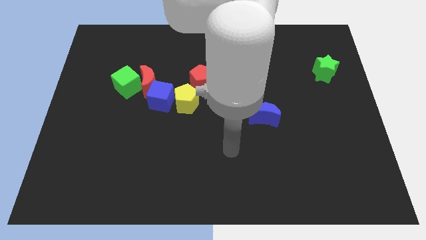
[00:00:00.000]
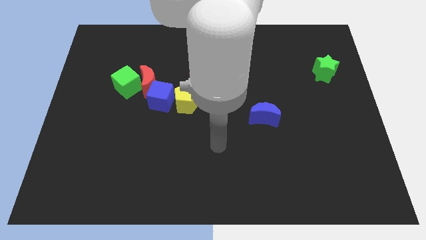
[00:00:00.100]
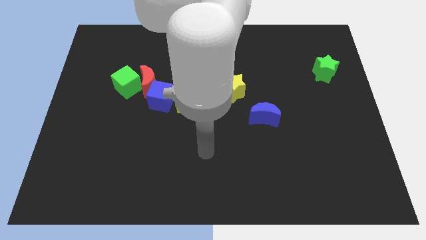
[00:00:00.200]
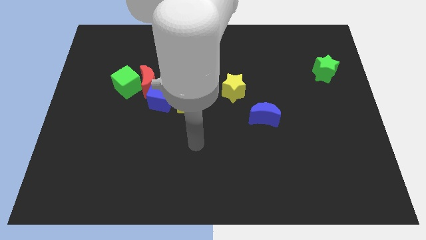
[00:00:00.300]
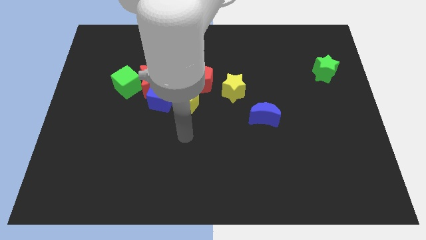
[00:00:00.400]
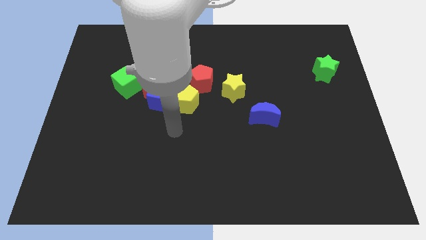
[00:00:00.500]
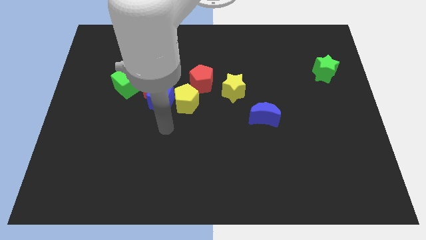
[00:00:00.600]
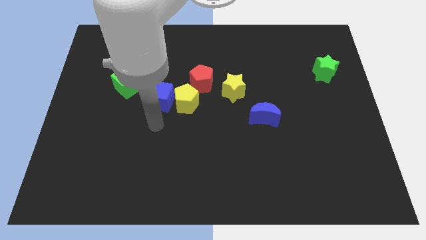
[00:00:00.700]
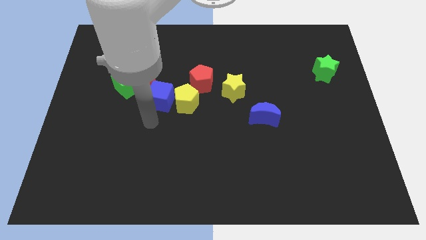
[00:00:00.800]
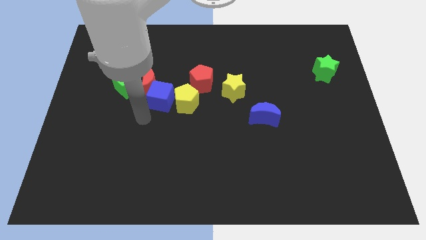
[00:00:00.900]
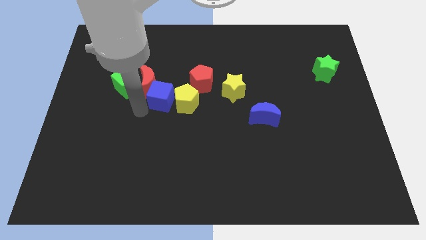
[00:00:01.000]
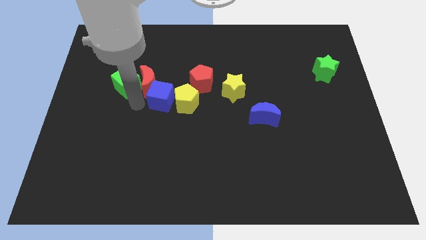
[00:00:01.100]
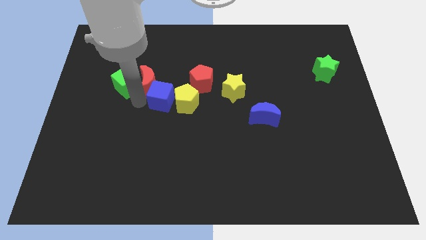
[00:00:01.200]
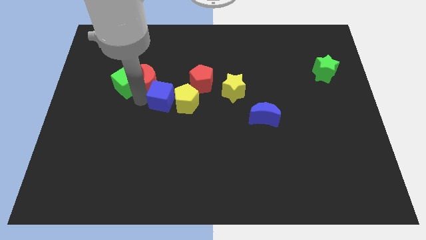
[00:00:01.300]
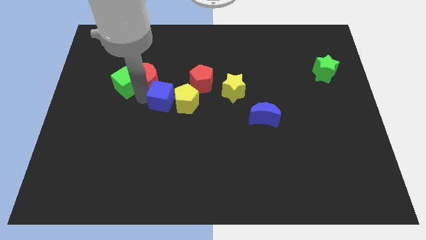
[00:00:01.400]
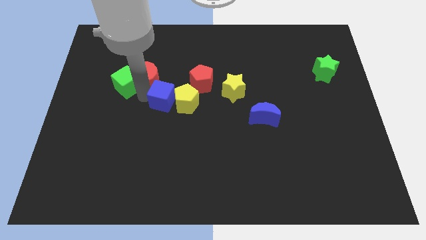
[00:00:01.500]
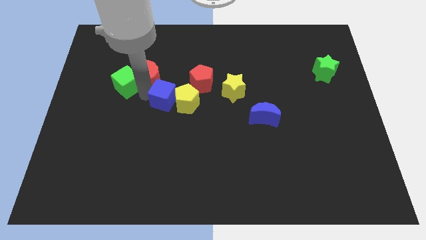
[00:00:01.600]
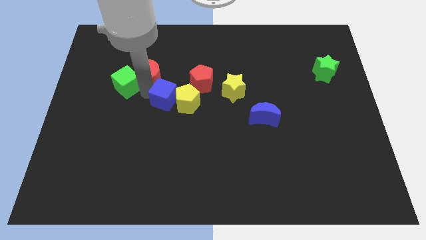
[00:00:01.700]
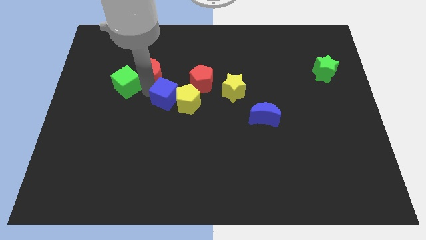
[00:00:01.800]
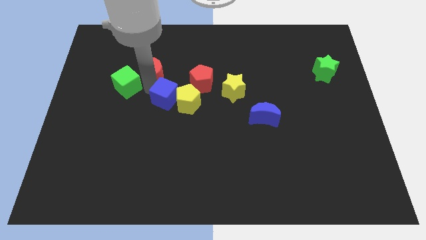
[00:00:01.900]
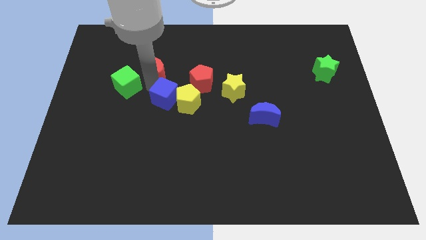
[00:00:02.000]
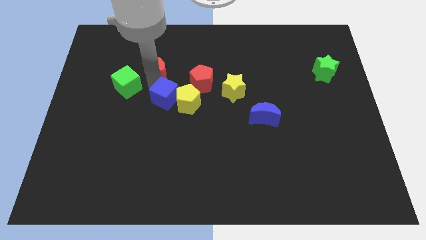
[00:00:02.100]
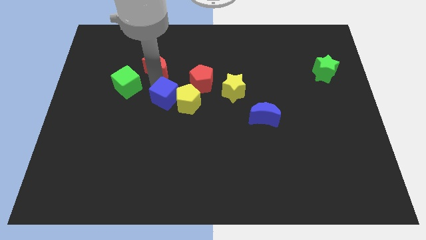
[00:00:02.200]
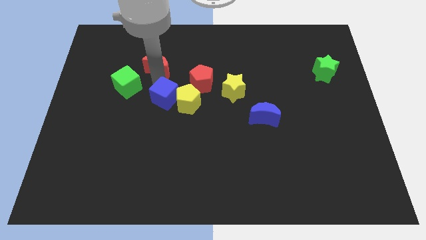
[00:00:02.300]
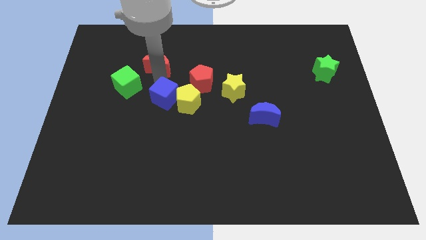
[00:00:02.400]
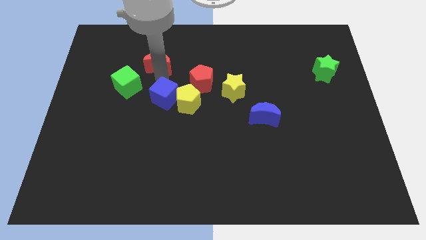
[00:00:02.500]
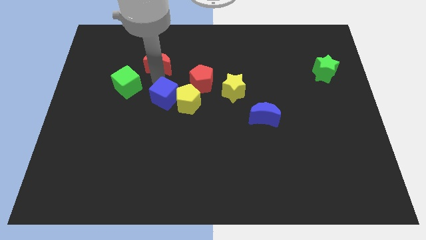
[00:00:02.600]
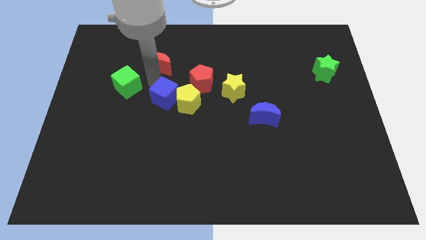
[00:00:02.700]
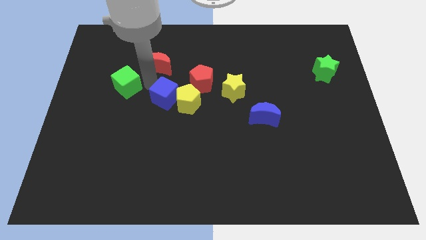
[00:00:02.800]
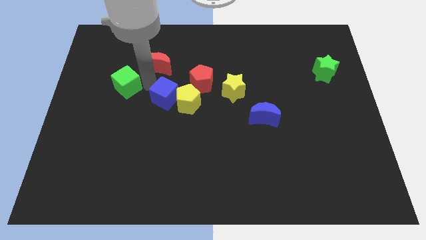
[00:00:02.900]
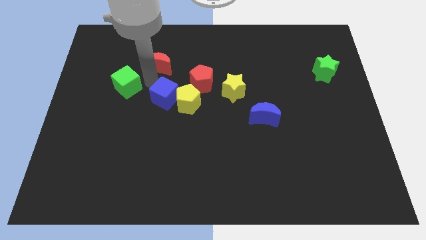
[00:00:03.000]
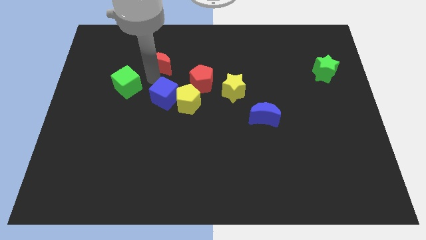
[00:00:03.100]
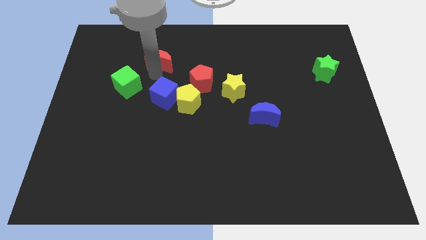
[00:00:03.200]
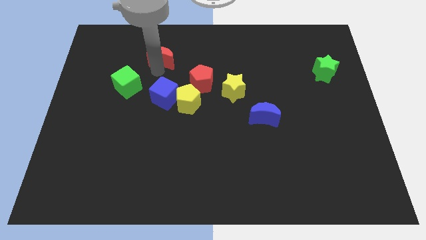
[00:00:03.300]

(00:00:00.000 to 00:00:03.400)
pull the red moon apart from the green cube and blue cube

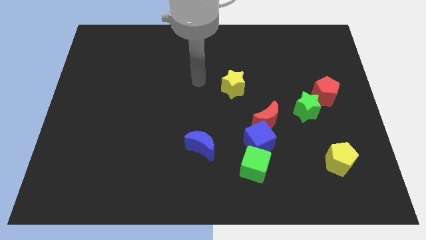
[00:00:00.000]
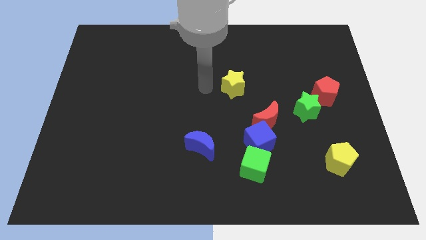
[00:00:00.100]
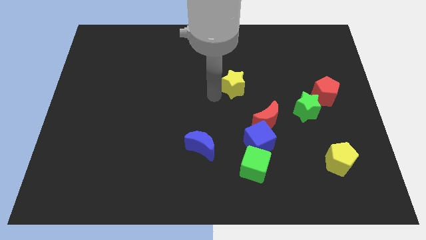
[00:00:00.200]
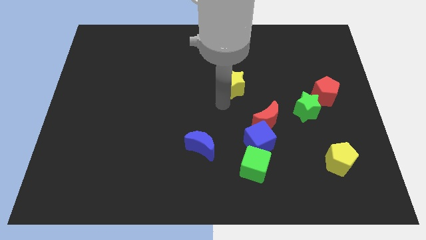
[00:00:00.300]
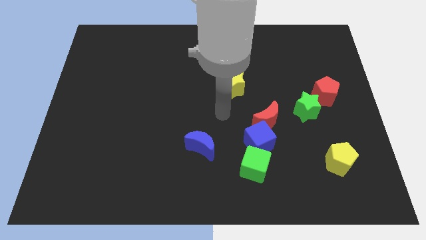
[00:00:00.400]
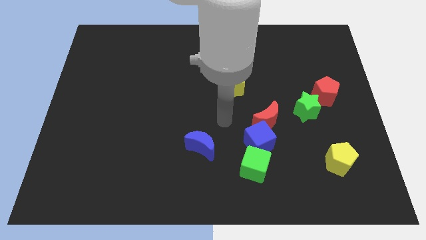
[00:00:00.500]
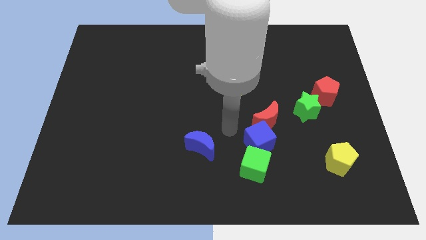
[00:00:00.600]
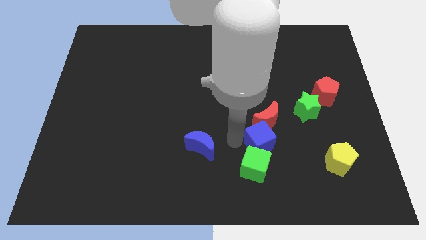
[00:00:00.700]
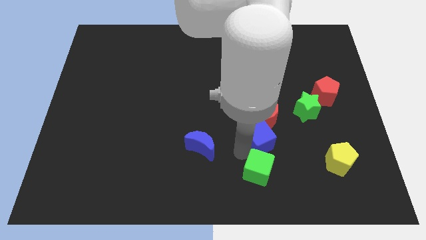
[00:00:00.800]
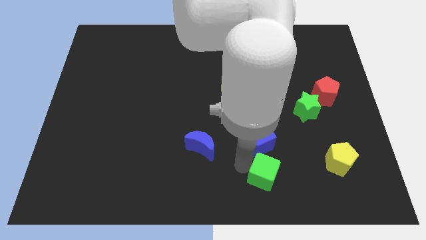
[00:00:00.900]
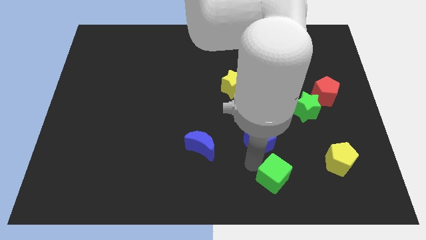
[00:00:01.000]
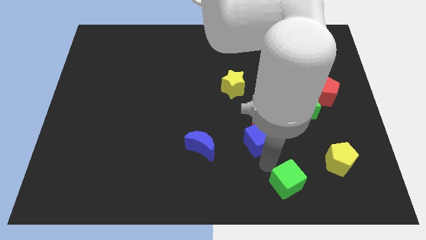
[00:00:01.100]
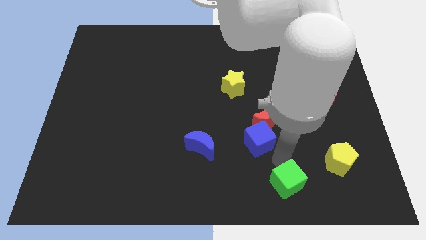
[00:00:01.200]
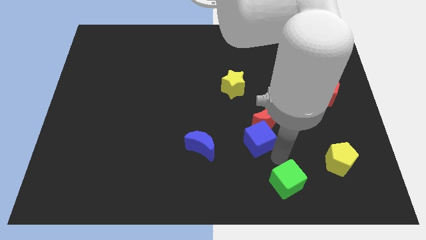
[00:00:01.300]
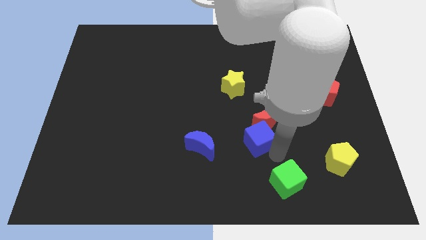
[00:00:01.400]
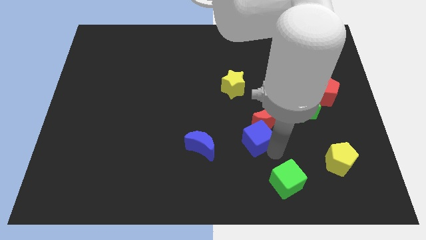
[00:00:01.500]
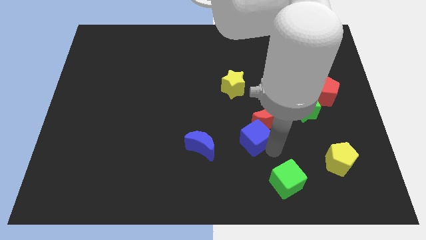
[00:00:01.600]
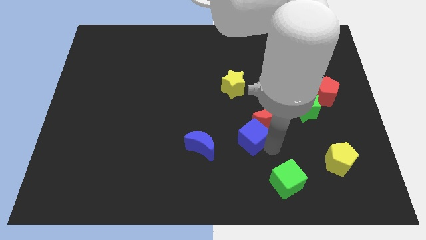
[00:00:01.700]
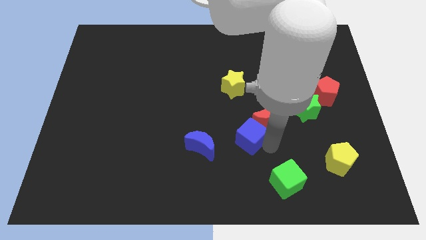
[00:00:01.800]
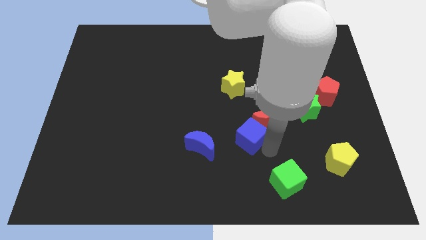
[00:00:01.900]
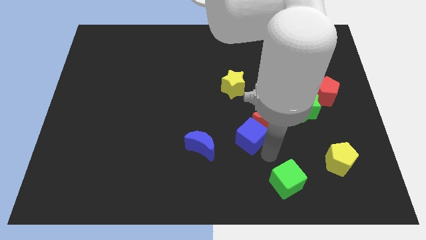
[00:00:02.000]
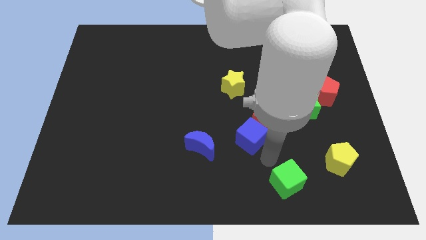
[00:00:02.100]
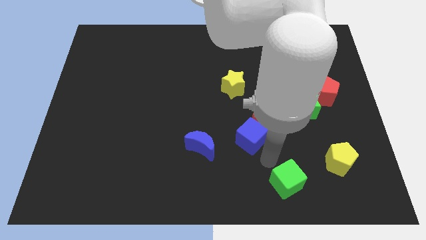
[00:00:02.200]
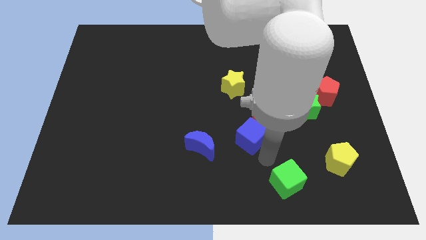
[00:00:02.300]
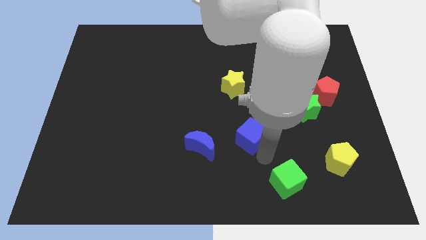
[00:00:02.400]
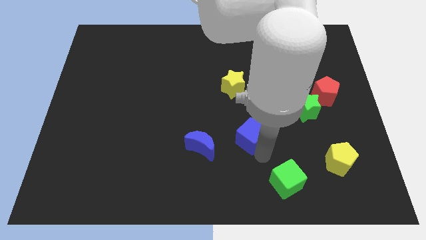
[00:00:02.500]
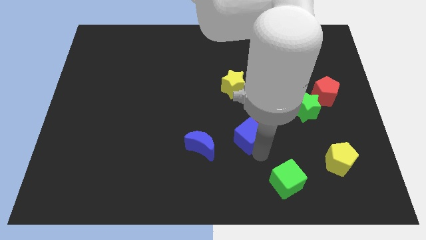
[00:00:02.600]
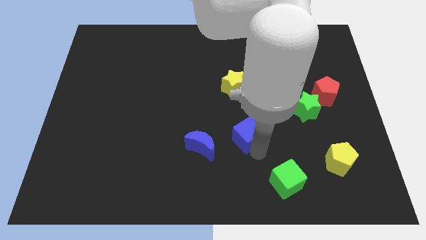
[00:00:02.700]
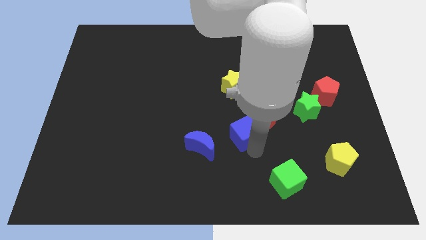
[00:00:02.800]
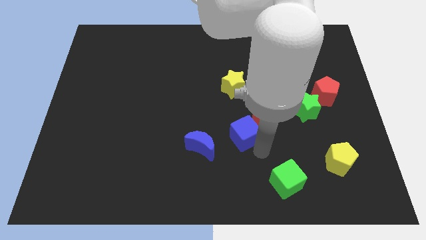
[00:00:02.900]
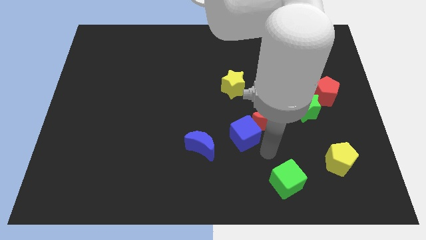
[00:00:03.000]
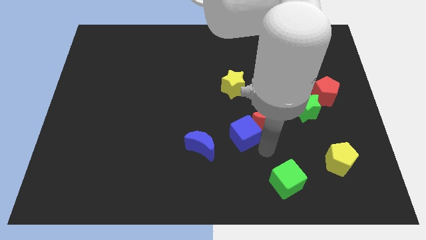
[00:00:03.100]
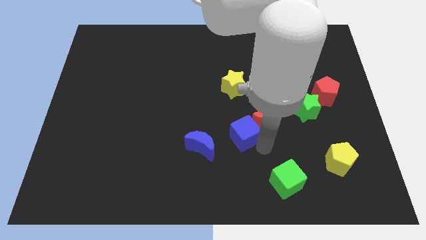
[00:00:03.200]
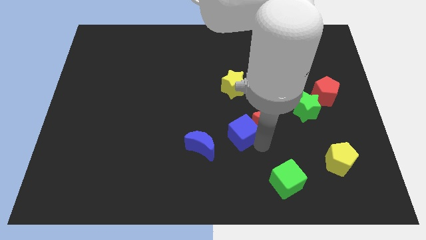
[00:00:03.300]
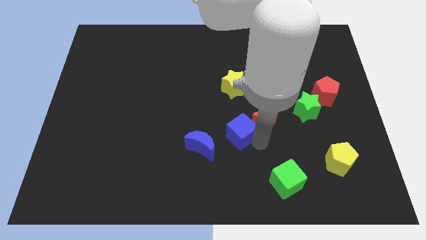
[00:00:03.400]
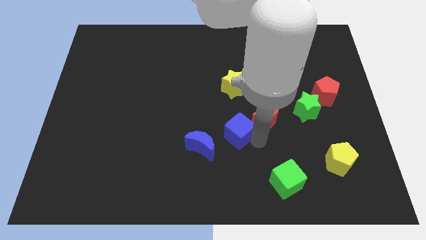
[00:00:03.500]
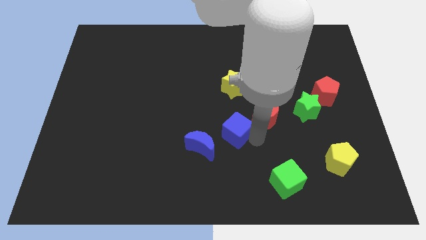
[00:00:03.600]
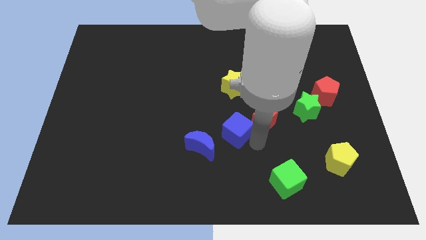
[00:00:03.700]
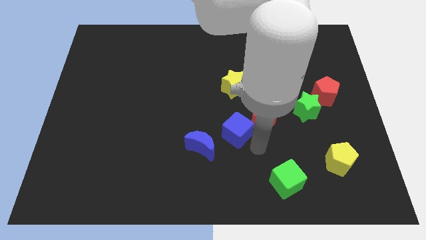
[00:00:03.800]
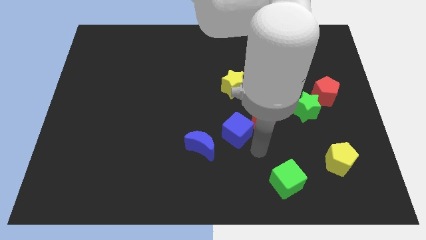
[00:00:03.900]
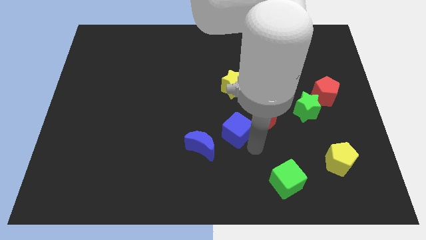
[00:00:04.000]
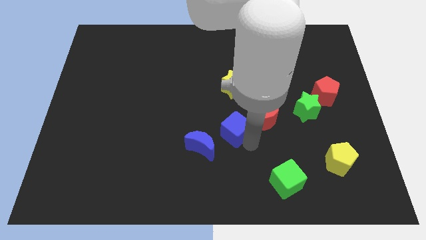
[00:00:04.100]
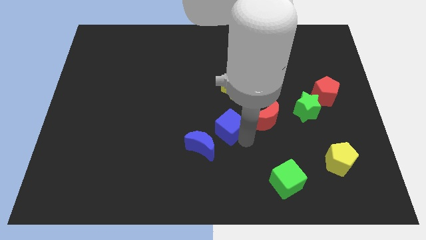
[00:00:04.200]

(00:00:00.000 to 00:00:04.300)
separate the blue cube from the red moon and green cube

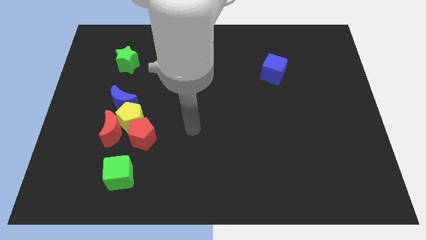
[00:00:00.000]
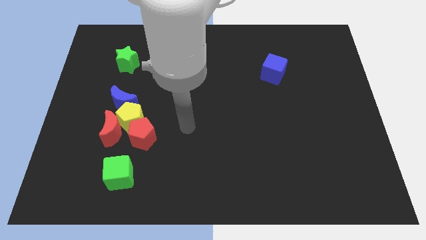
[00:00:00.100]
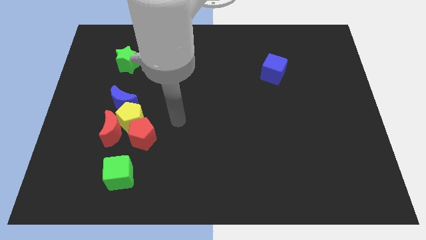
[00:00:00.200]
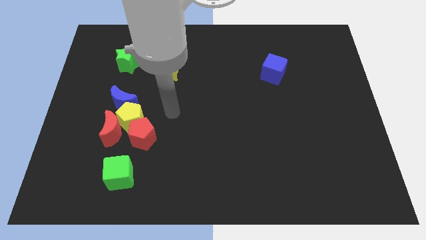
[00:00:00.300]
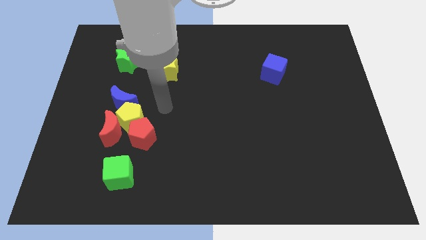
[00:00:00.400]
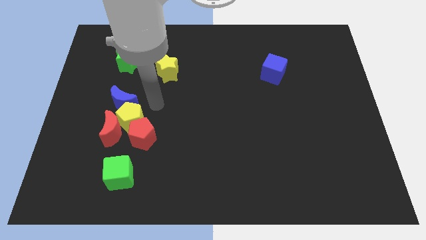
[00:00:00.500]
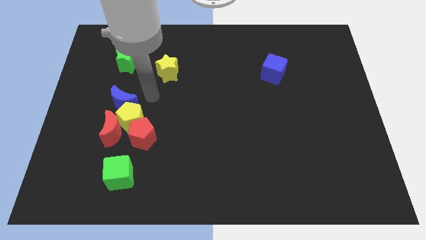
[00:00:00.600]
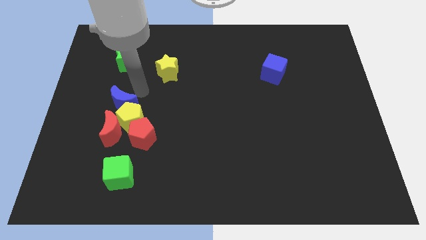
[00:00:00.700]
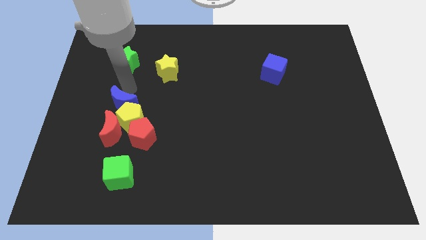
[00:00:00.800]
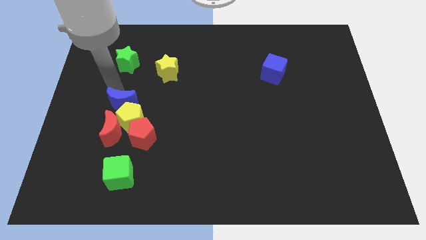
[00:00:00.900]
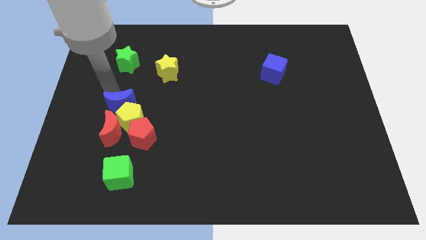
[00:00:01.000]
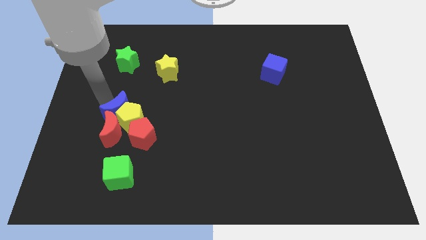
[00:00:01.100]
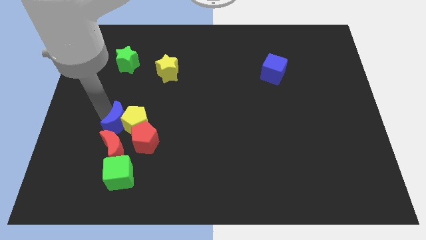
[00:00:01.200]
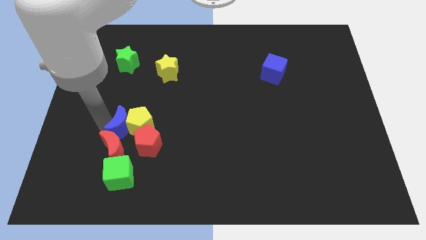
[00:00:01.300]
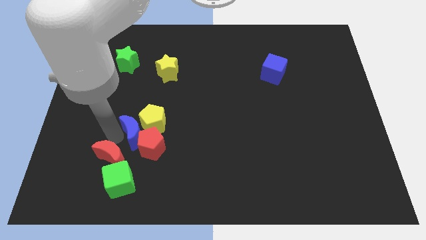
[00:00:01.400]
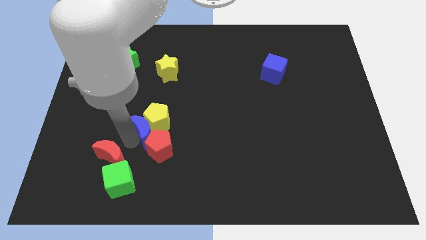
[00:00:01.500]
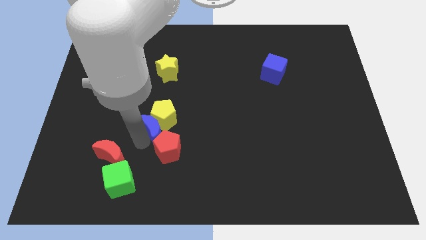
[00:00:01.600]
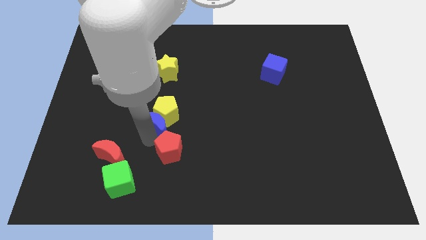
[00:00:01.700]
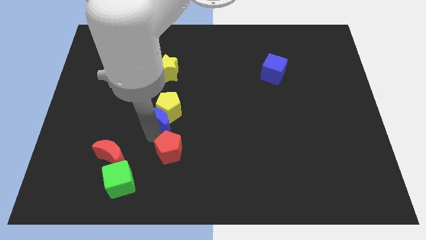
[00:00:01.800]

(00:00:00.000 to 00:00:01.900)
move the yellow pentagon away from the group
